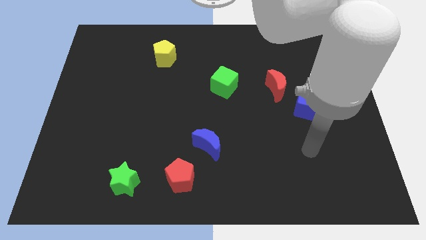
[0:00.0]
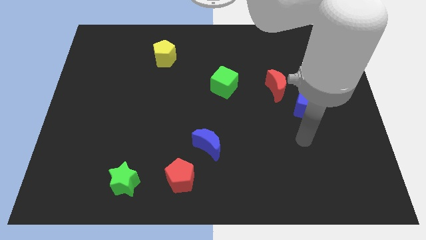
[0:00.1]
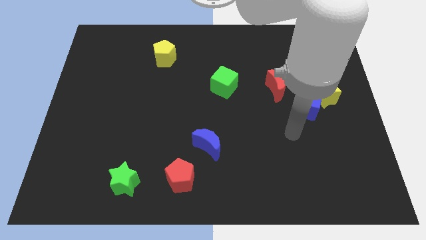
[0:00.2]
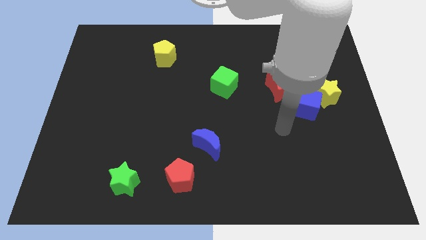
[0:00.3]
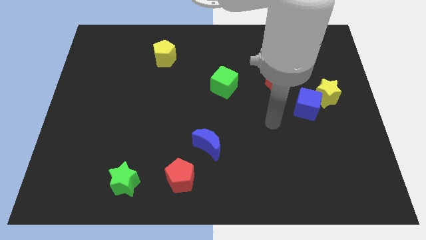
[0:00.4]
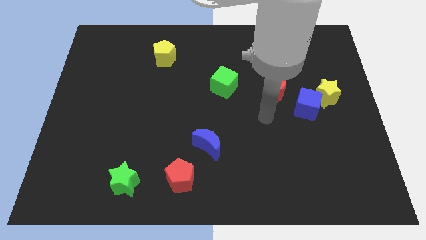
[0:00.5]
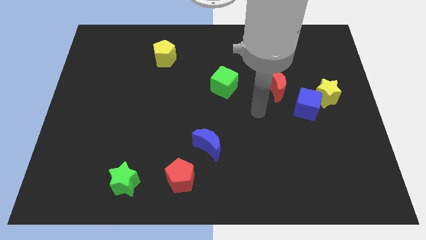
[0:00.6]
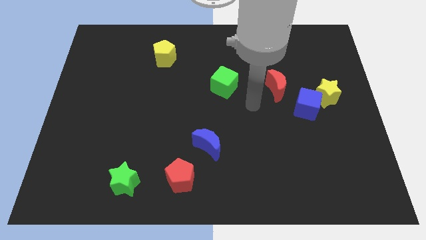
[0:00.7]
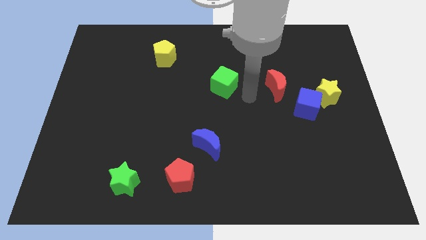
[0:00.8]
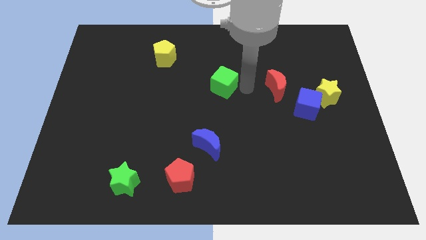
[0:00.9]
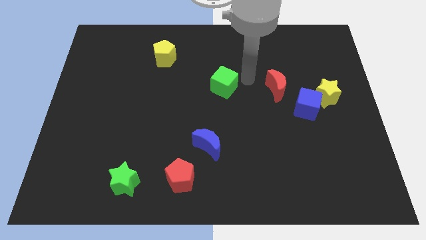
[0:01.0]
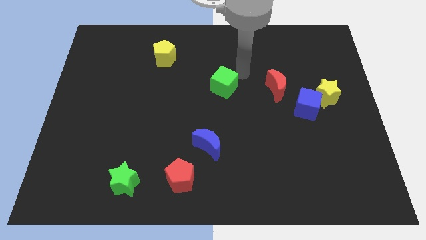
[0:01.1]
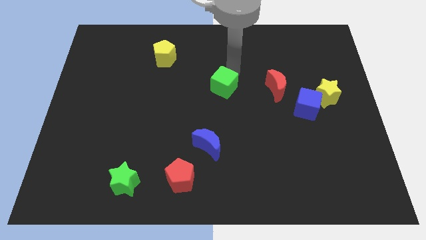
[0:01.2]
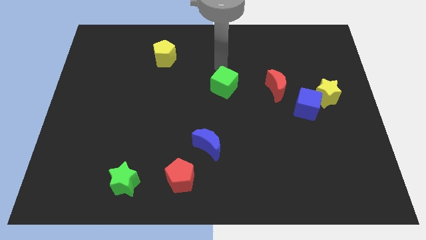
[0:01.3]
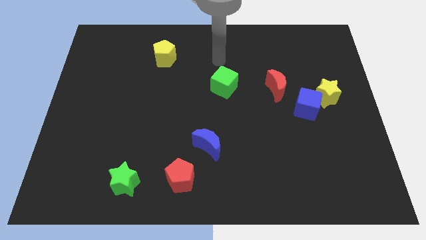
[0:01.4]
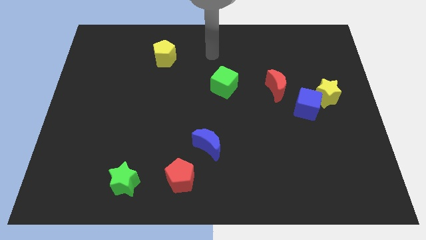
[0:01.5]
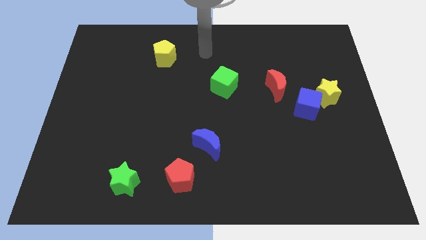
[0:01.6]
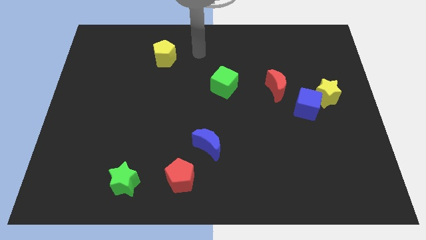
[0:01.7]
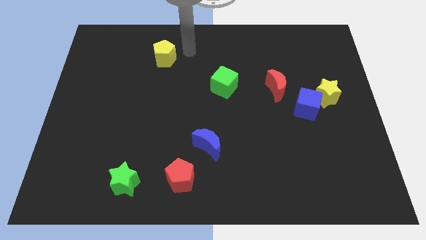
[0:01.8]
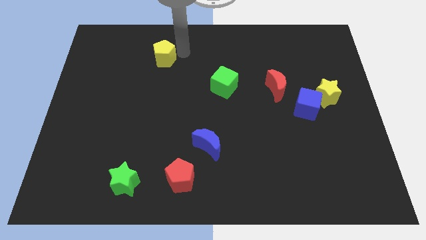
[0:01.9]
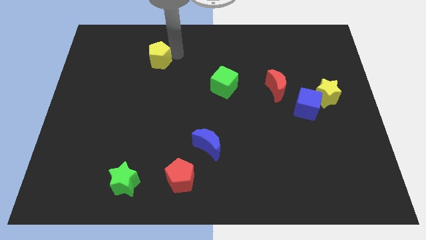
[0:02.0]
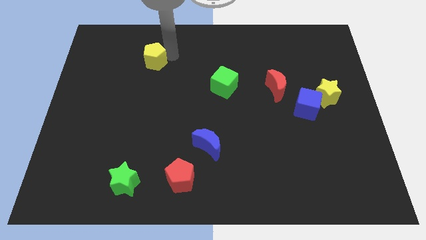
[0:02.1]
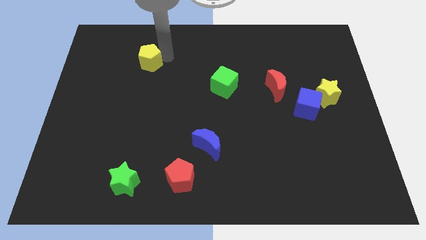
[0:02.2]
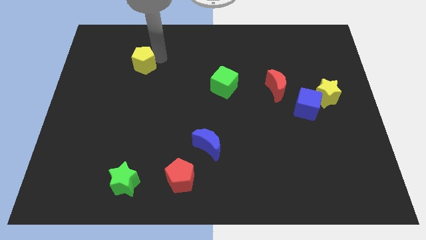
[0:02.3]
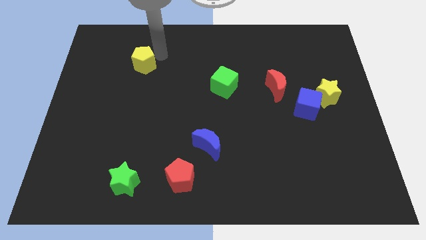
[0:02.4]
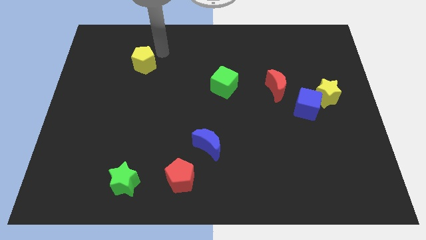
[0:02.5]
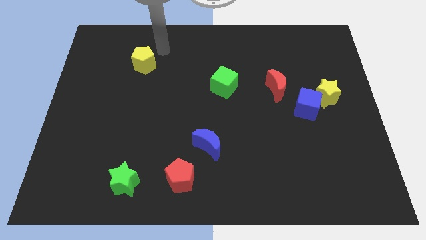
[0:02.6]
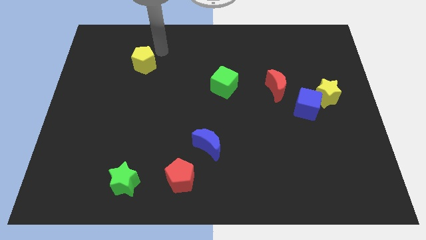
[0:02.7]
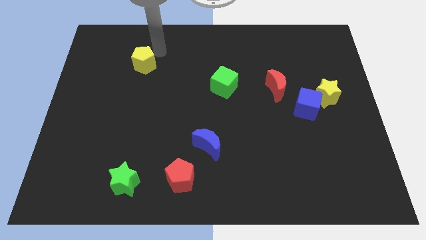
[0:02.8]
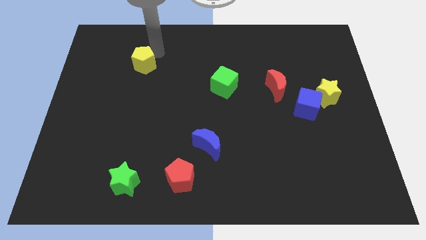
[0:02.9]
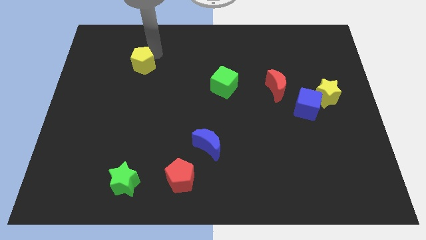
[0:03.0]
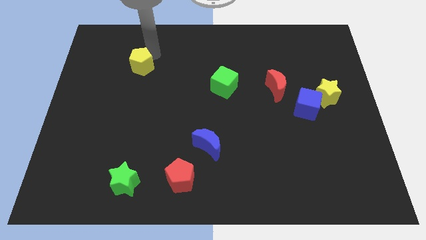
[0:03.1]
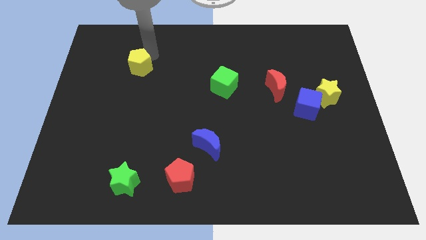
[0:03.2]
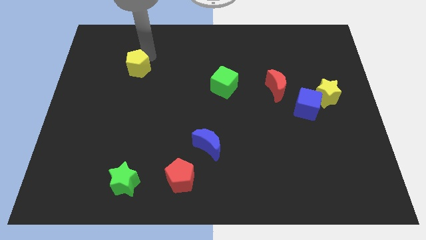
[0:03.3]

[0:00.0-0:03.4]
slightly move the yellow pentagon downwards and to the left

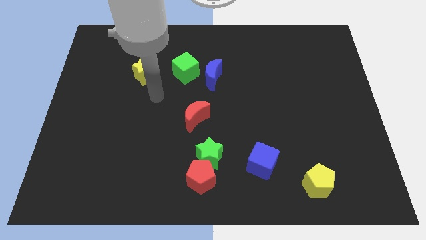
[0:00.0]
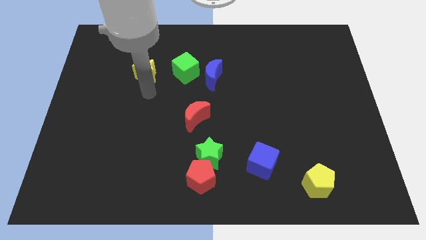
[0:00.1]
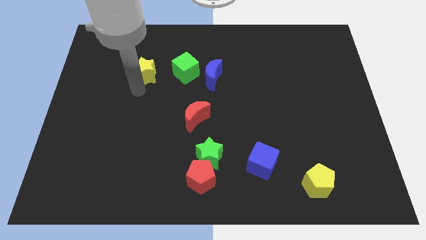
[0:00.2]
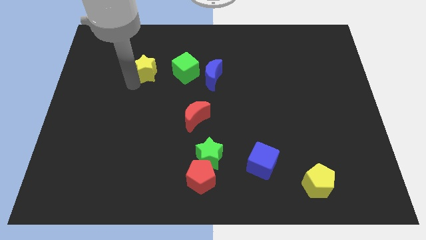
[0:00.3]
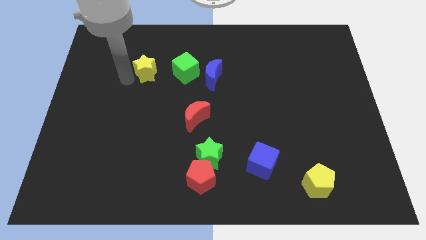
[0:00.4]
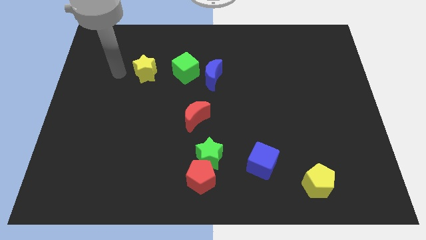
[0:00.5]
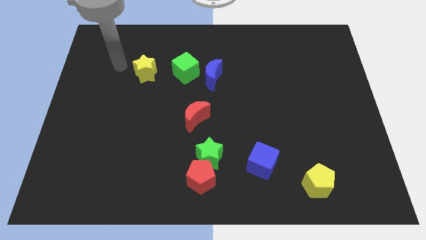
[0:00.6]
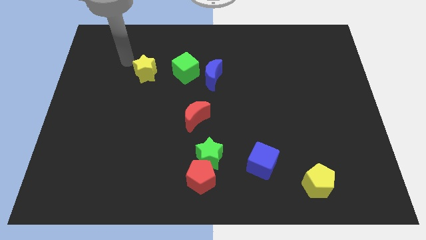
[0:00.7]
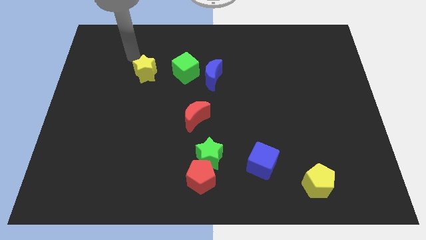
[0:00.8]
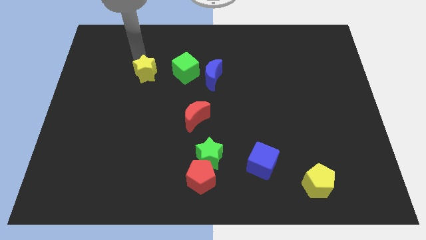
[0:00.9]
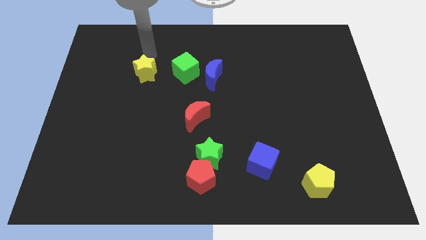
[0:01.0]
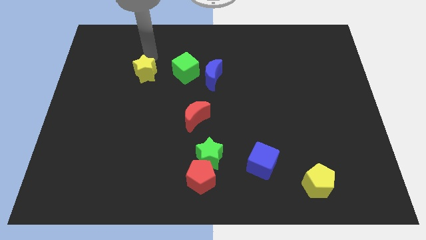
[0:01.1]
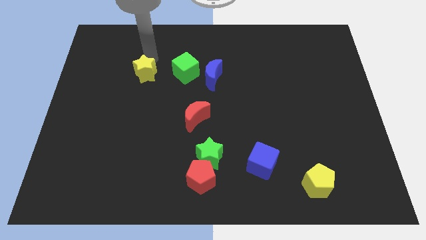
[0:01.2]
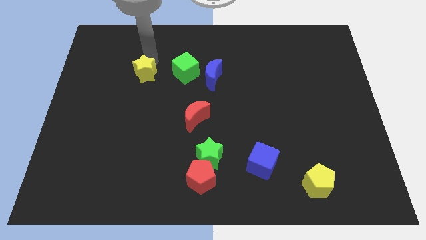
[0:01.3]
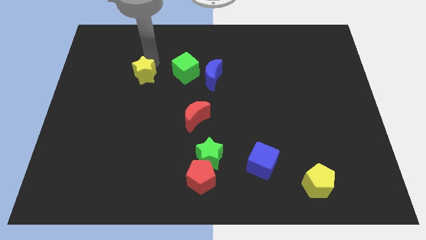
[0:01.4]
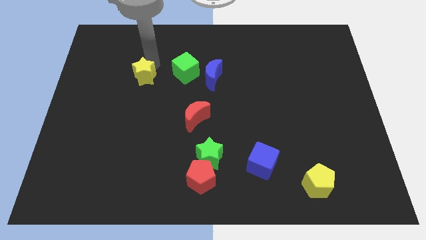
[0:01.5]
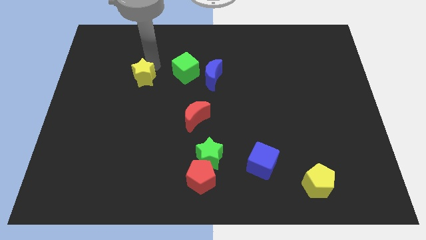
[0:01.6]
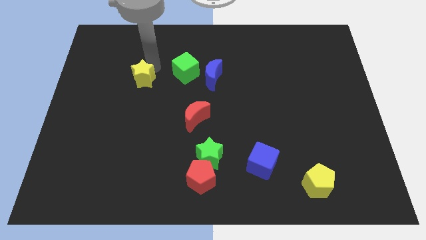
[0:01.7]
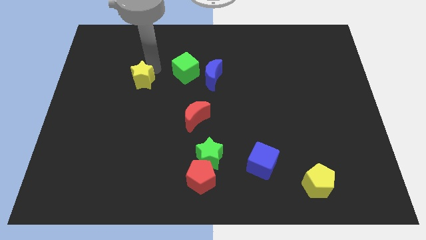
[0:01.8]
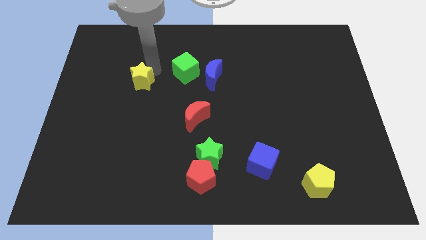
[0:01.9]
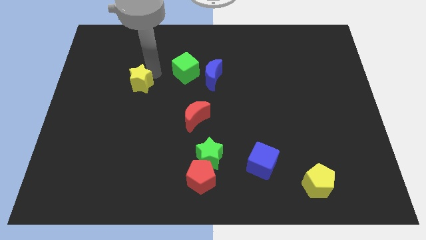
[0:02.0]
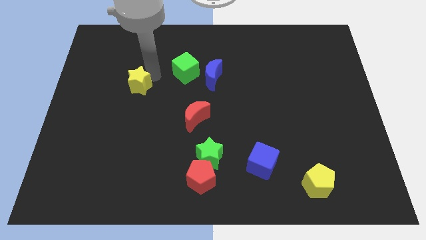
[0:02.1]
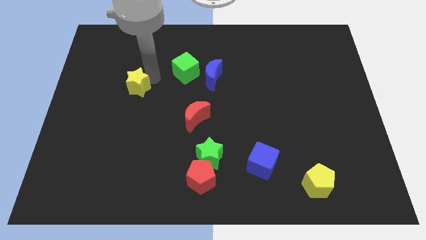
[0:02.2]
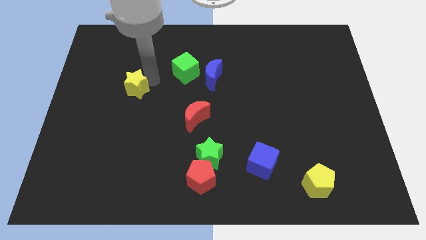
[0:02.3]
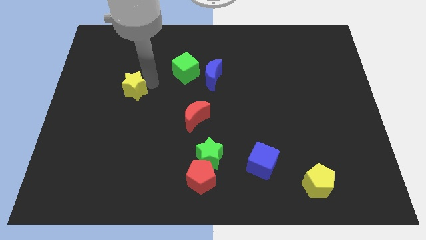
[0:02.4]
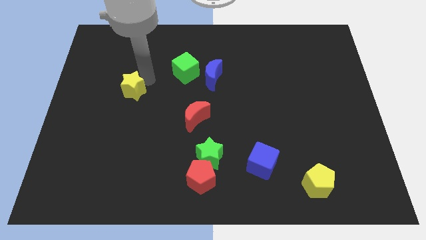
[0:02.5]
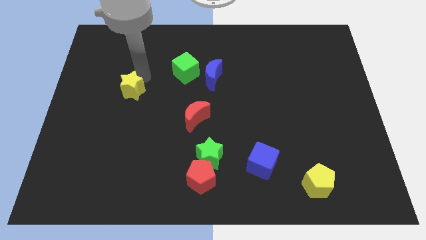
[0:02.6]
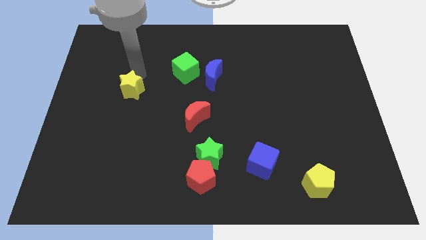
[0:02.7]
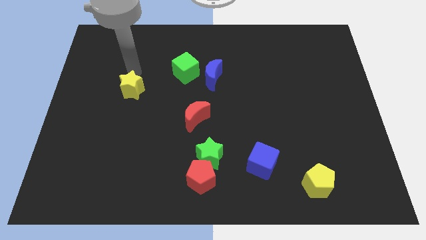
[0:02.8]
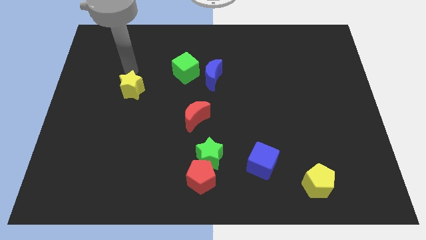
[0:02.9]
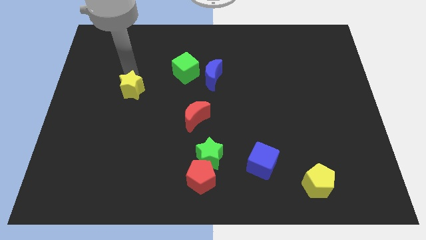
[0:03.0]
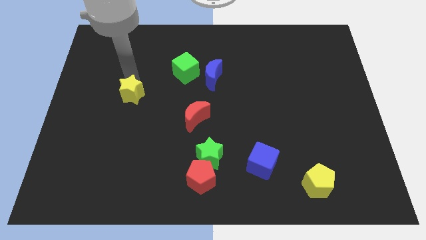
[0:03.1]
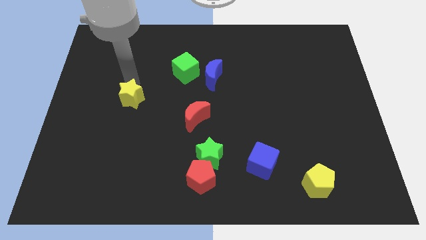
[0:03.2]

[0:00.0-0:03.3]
push the yellow star downwards a bit

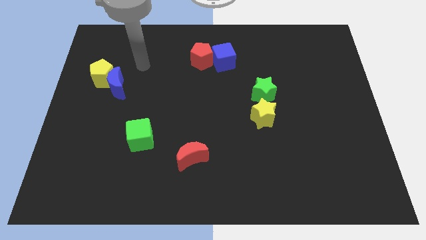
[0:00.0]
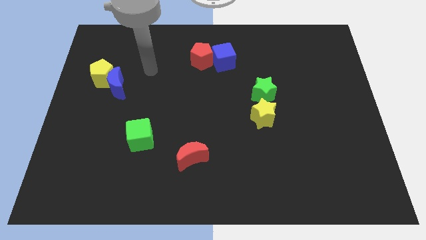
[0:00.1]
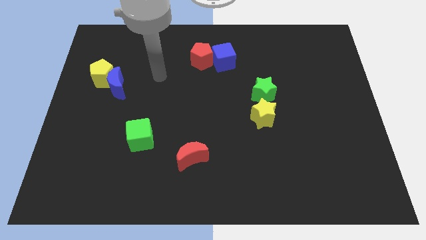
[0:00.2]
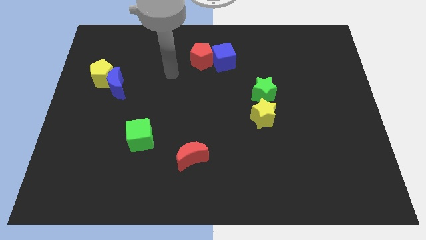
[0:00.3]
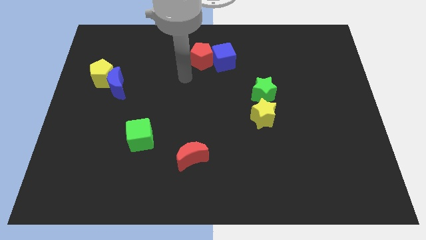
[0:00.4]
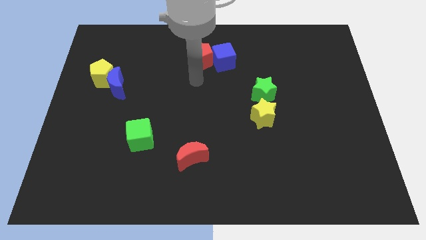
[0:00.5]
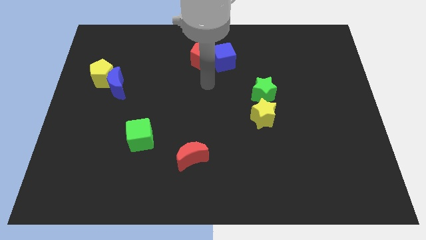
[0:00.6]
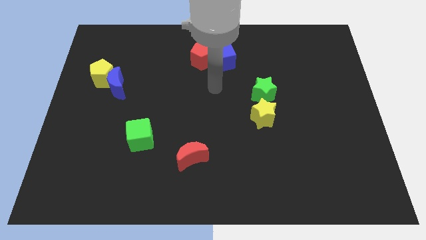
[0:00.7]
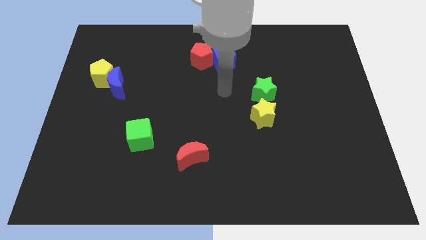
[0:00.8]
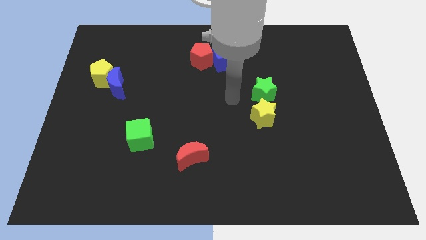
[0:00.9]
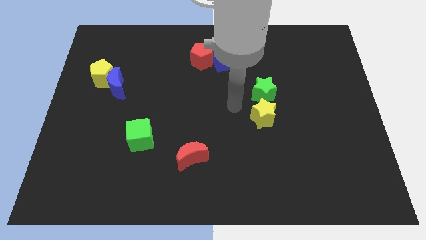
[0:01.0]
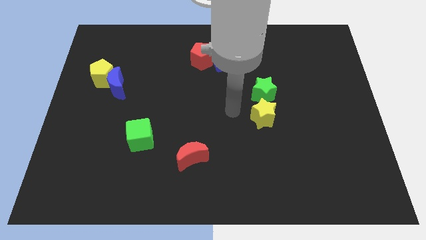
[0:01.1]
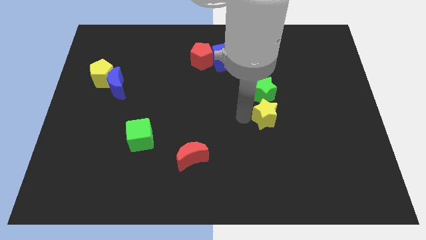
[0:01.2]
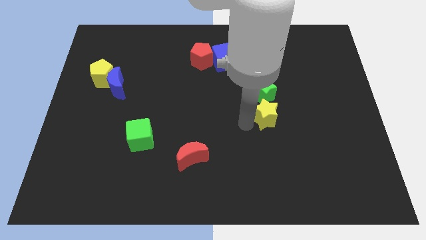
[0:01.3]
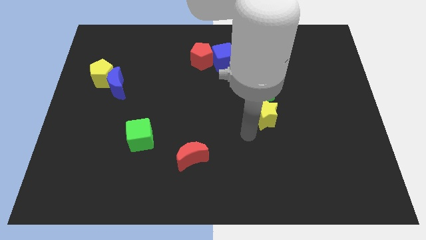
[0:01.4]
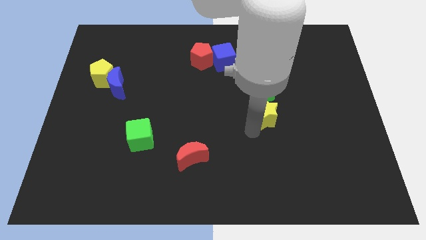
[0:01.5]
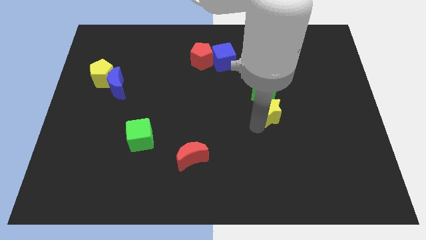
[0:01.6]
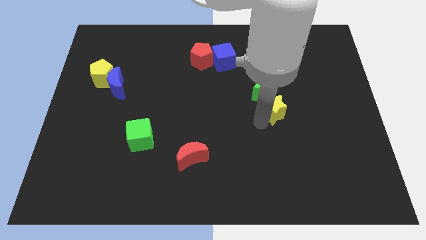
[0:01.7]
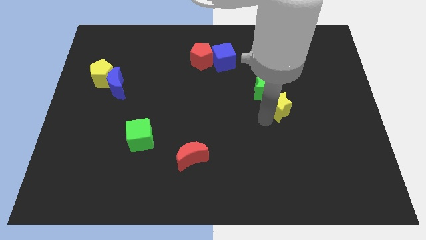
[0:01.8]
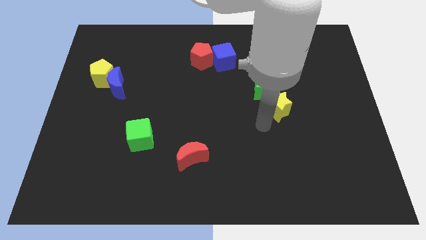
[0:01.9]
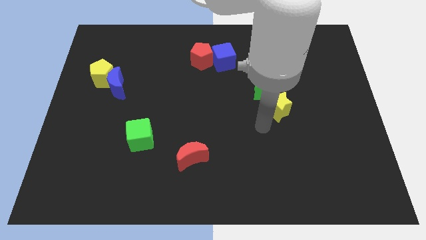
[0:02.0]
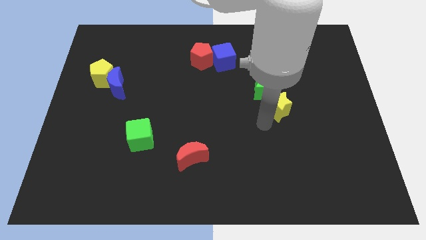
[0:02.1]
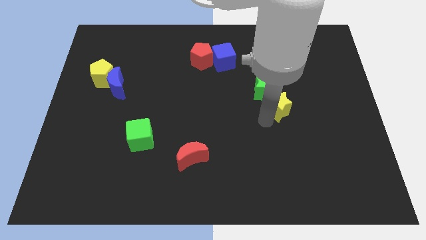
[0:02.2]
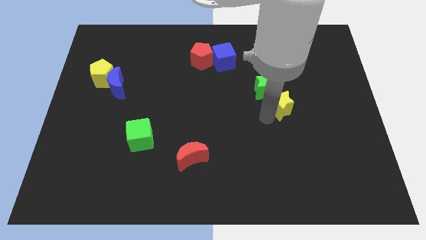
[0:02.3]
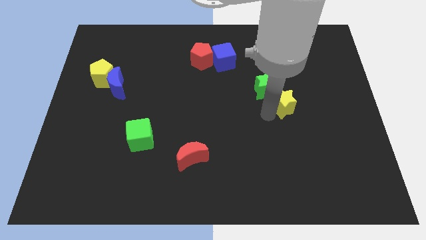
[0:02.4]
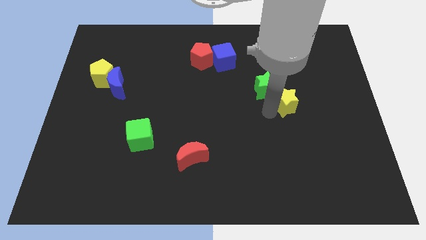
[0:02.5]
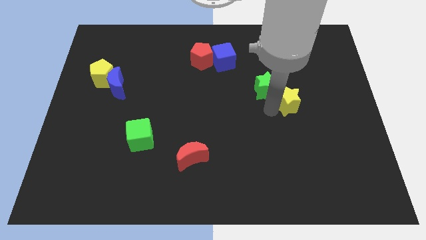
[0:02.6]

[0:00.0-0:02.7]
slightly slide the yellow star up and right
